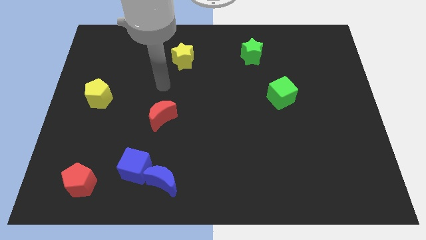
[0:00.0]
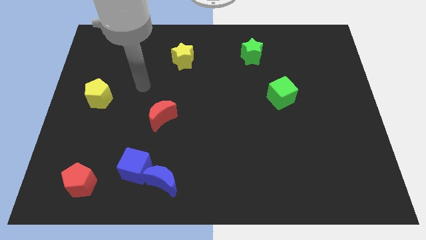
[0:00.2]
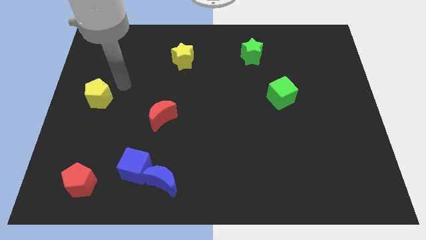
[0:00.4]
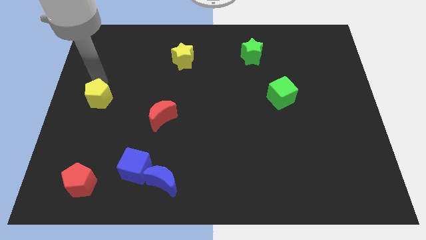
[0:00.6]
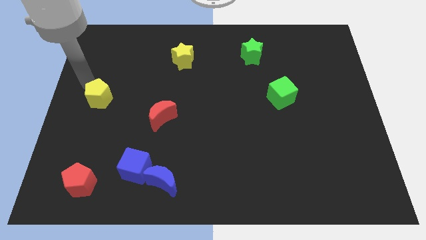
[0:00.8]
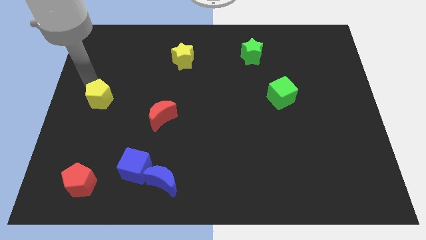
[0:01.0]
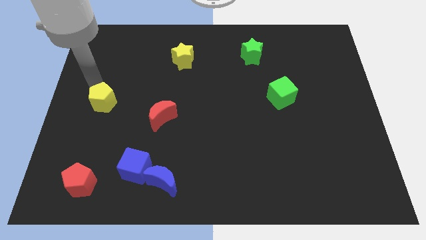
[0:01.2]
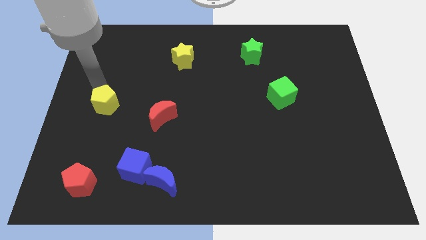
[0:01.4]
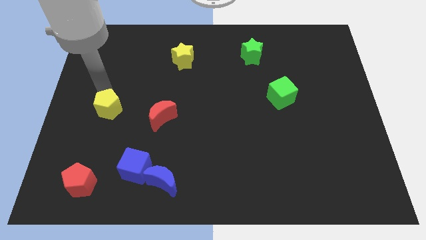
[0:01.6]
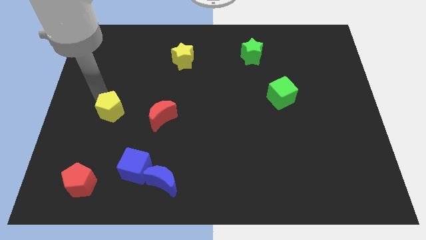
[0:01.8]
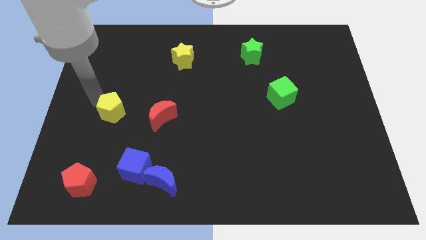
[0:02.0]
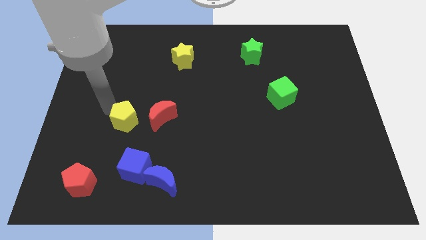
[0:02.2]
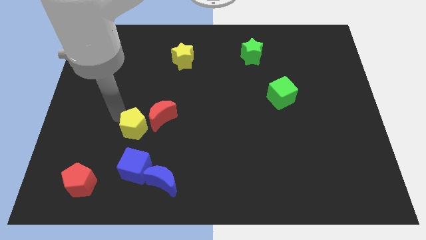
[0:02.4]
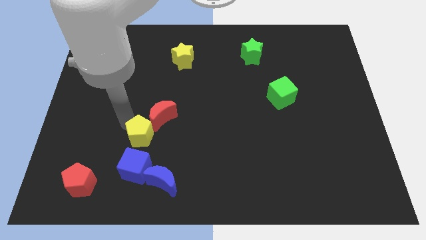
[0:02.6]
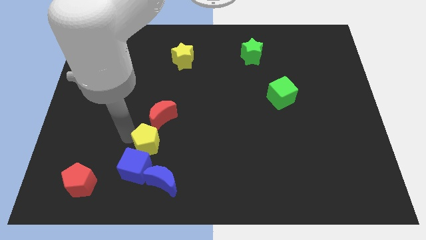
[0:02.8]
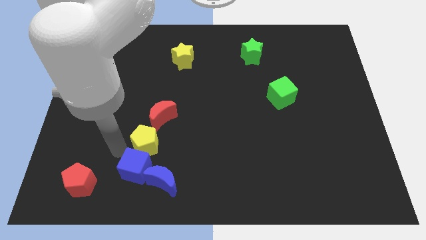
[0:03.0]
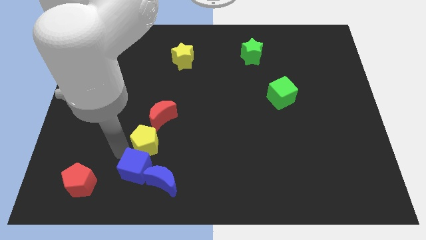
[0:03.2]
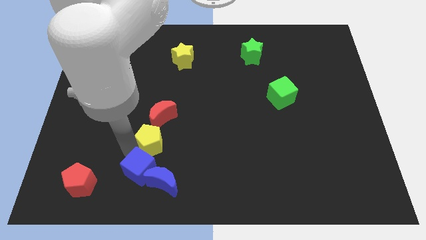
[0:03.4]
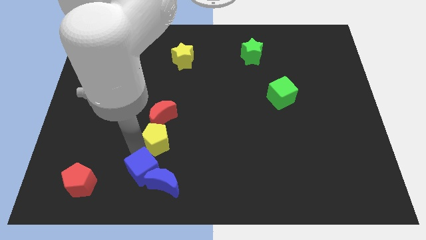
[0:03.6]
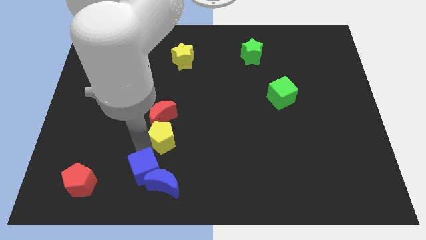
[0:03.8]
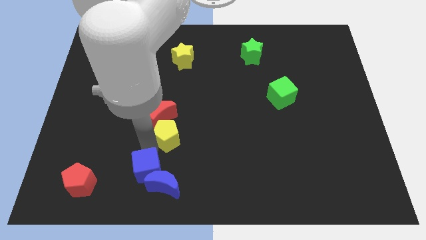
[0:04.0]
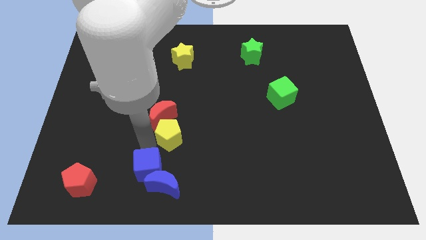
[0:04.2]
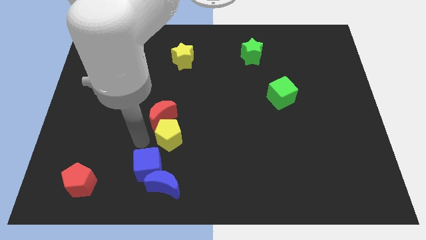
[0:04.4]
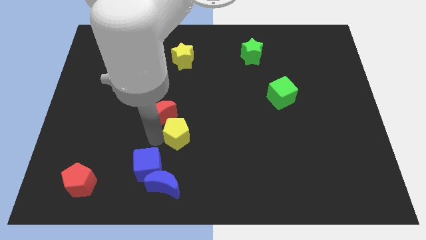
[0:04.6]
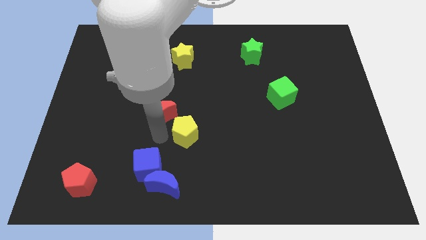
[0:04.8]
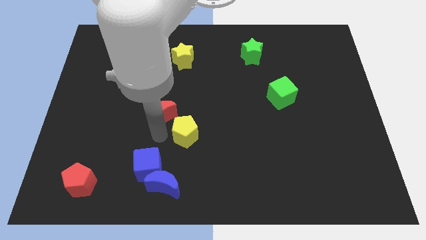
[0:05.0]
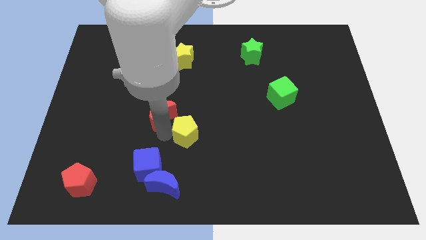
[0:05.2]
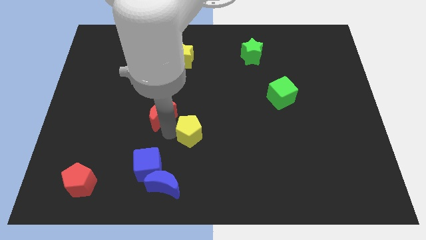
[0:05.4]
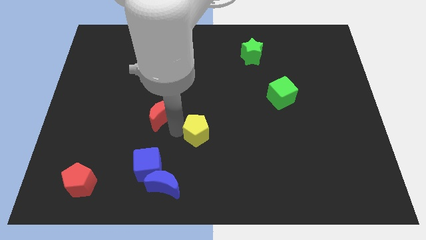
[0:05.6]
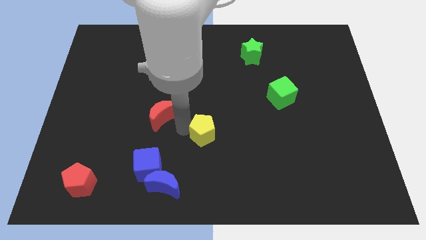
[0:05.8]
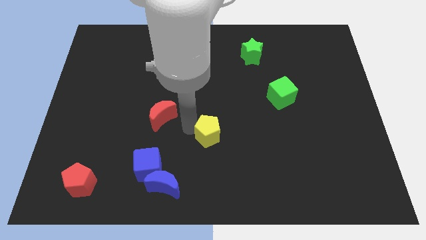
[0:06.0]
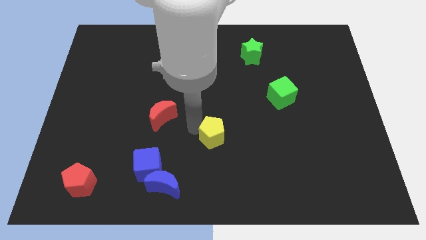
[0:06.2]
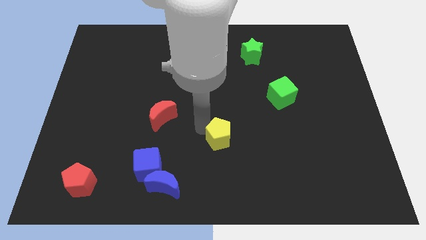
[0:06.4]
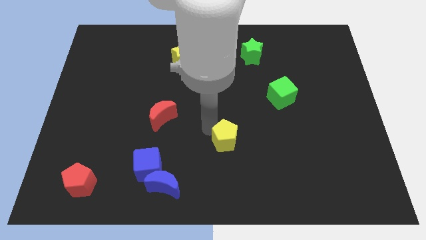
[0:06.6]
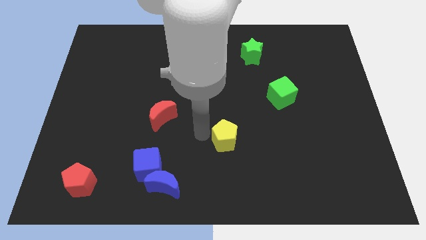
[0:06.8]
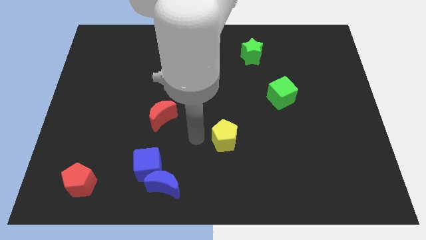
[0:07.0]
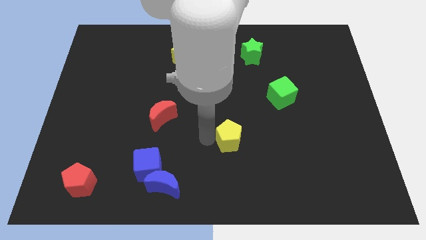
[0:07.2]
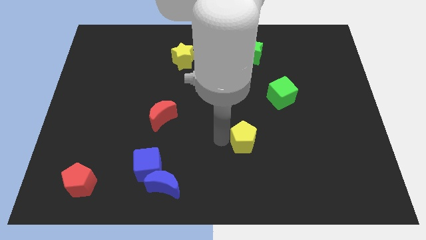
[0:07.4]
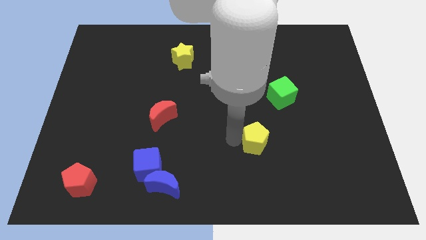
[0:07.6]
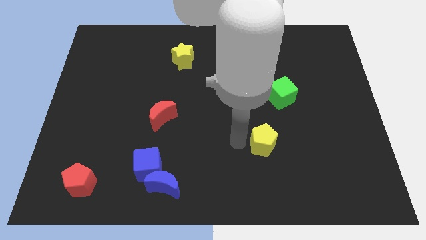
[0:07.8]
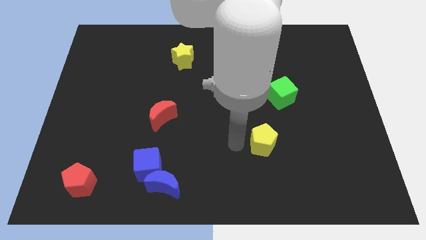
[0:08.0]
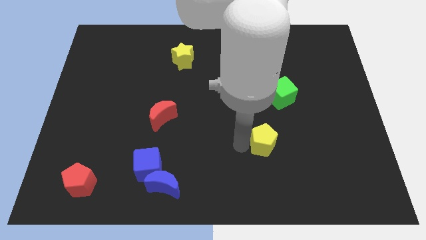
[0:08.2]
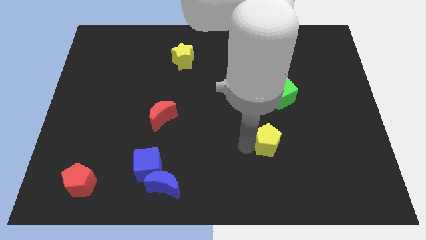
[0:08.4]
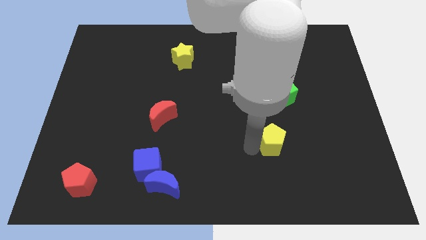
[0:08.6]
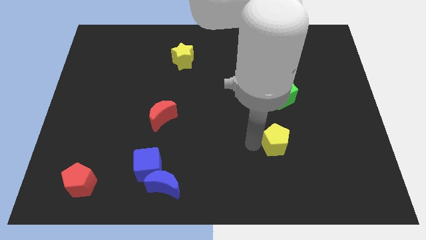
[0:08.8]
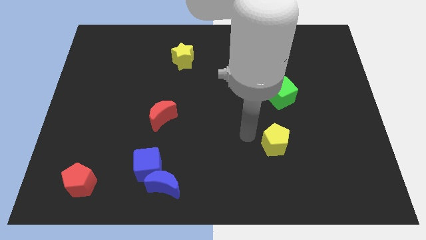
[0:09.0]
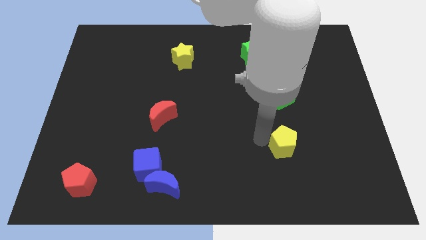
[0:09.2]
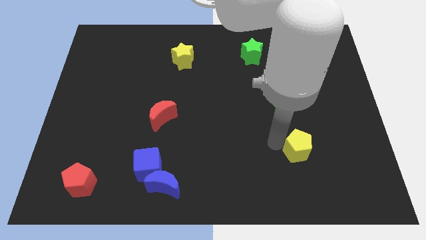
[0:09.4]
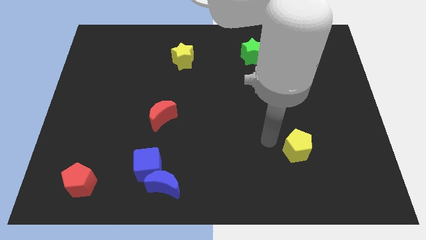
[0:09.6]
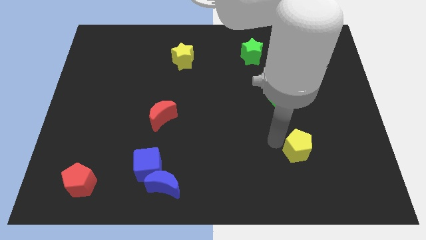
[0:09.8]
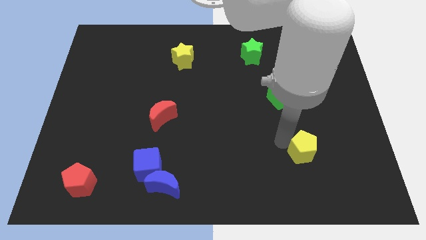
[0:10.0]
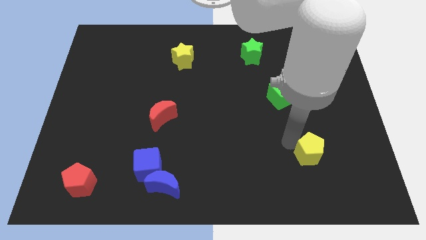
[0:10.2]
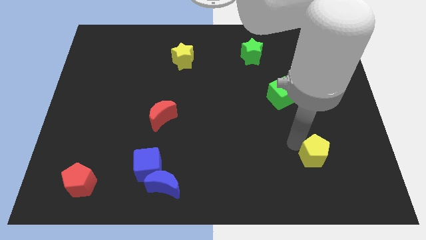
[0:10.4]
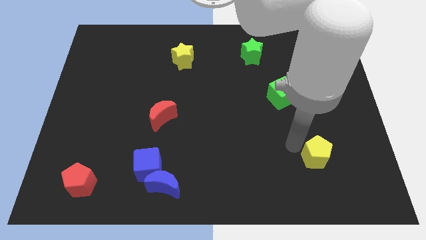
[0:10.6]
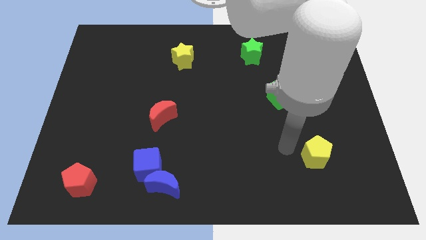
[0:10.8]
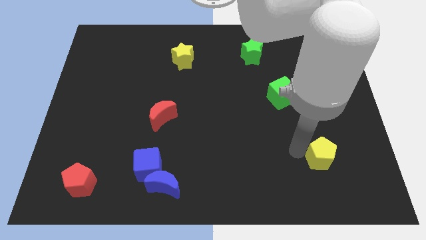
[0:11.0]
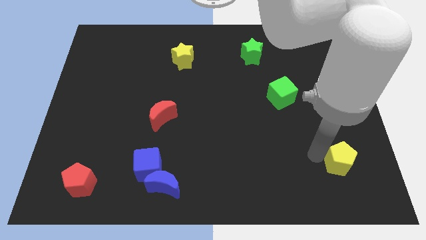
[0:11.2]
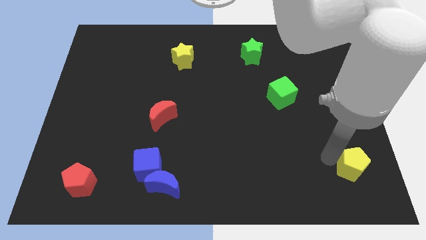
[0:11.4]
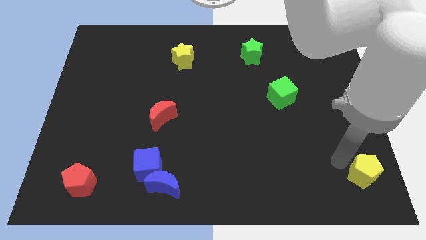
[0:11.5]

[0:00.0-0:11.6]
slide the yellow pentagon to the bottom right corner
